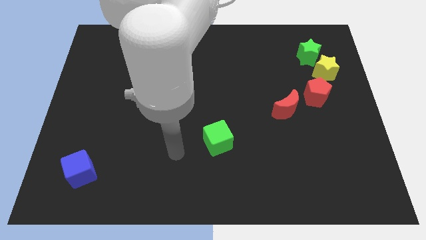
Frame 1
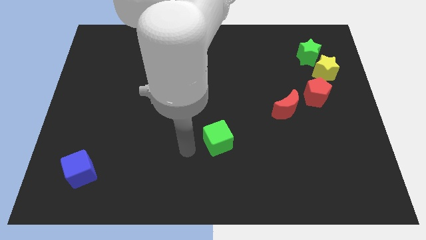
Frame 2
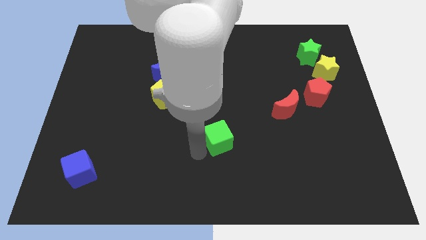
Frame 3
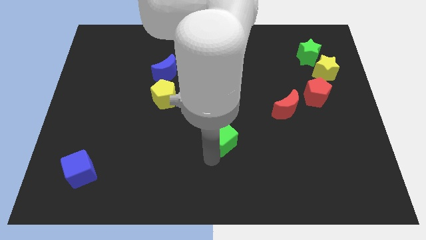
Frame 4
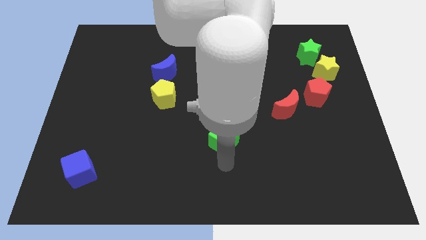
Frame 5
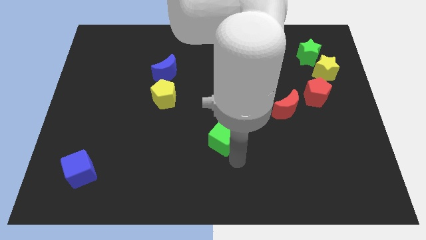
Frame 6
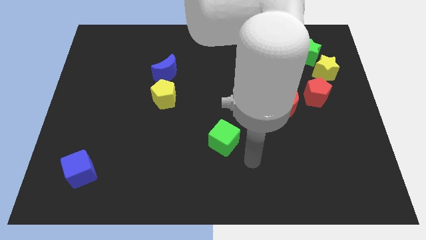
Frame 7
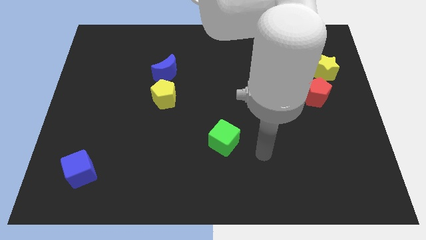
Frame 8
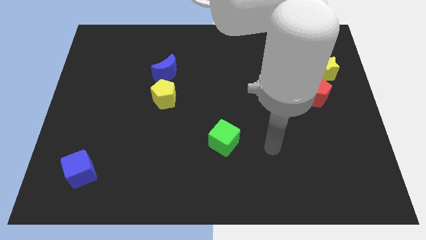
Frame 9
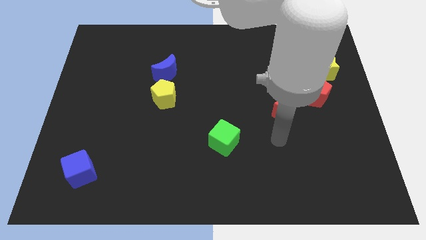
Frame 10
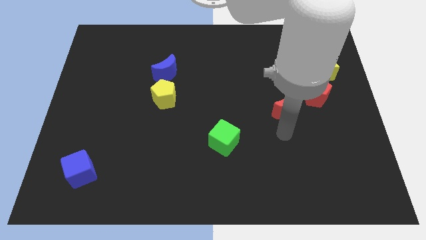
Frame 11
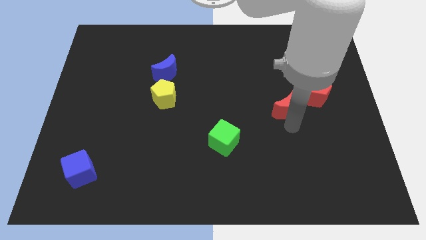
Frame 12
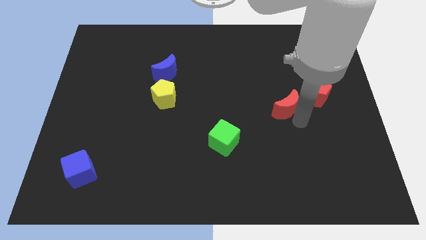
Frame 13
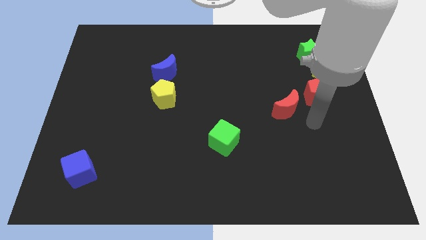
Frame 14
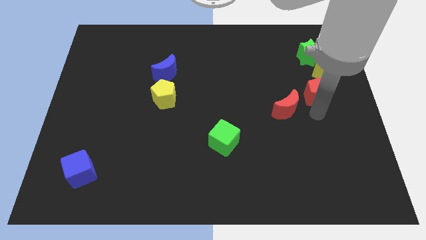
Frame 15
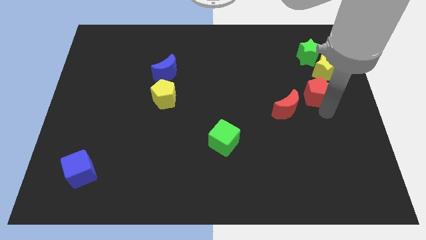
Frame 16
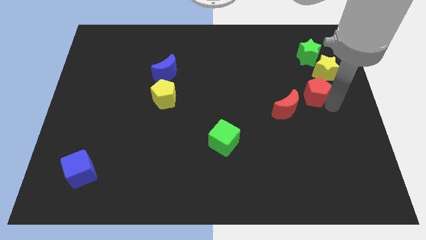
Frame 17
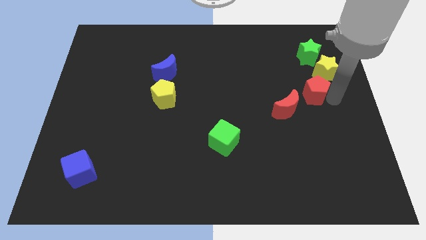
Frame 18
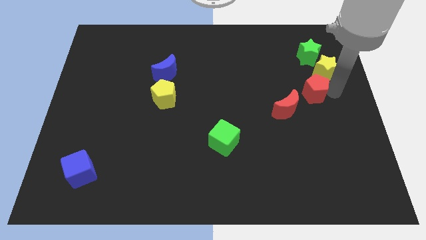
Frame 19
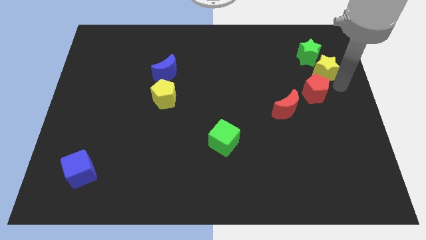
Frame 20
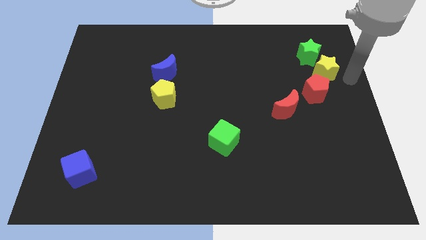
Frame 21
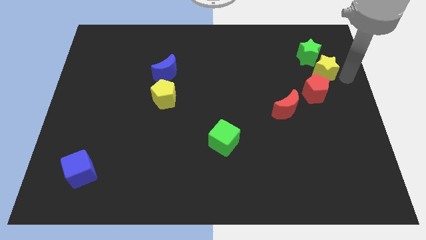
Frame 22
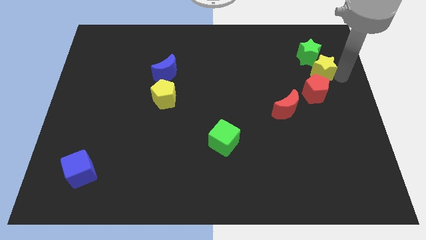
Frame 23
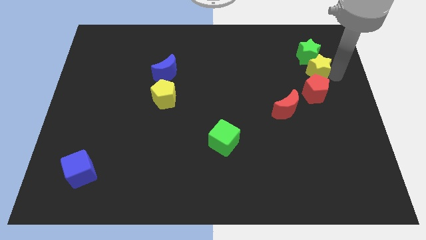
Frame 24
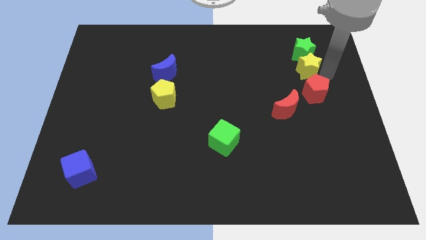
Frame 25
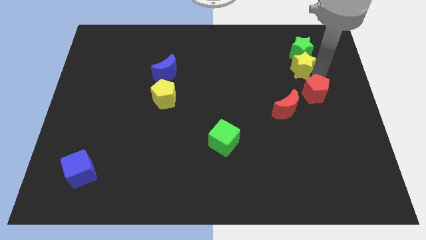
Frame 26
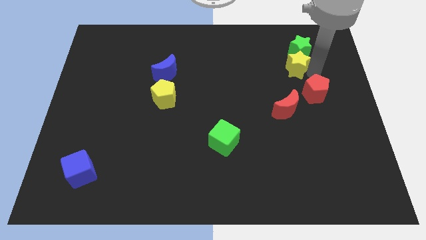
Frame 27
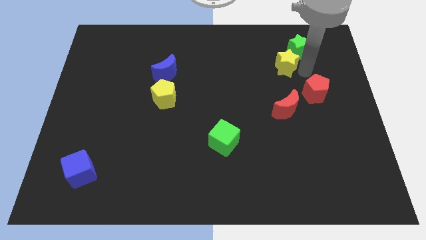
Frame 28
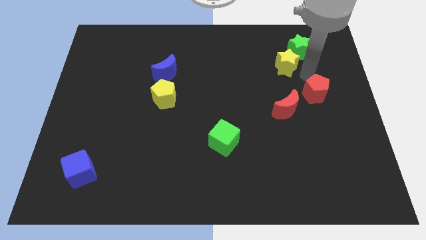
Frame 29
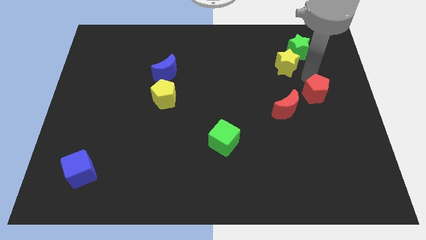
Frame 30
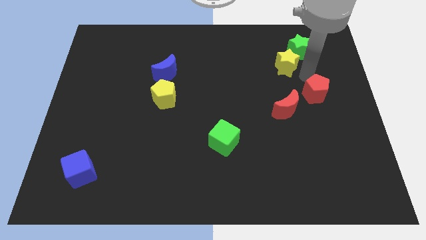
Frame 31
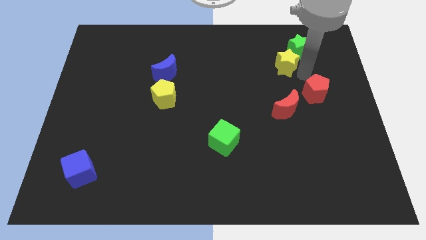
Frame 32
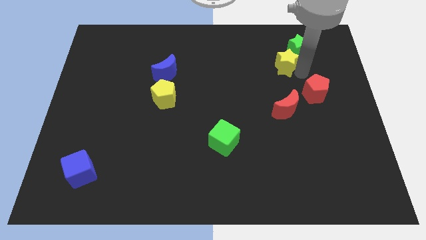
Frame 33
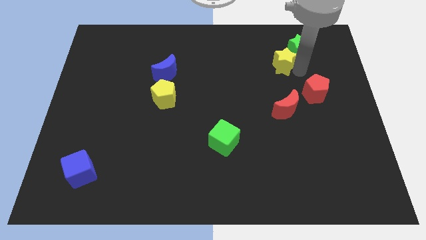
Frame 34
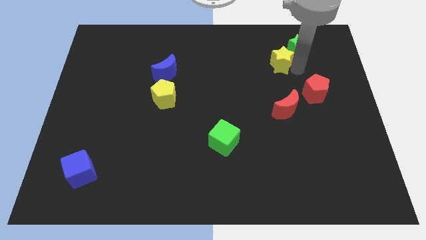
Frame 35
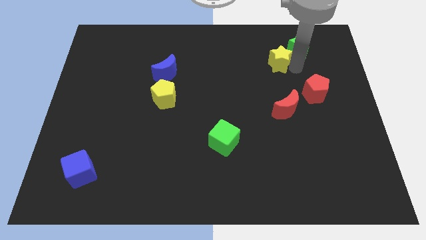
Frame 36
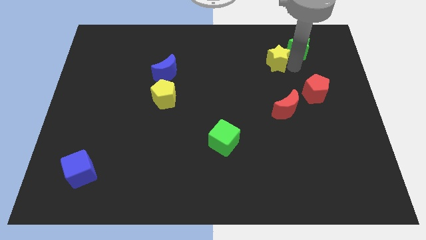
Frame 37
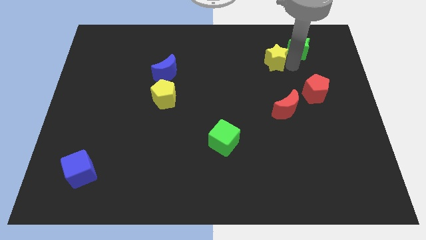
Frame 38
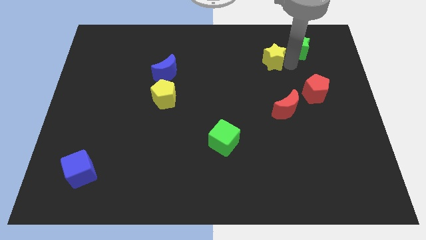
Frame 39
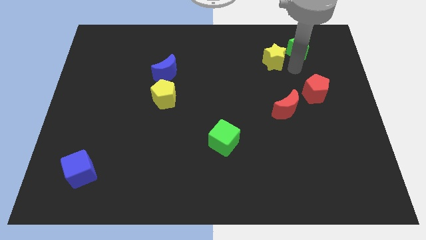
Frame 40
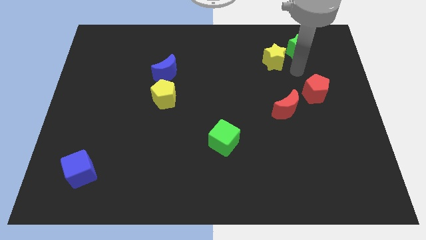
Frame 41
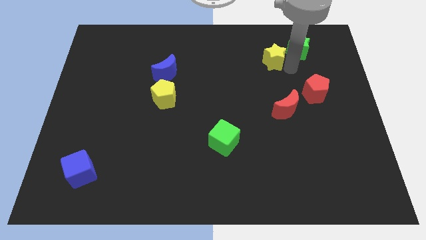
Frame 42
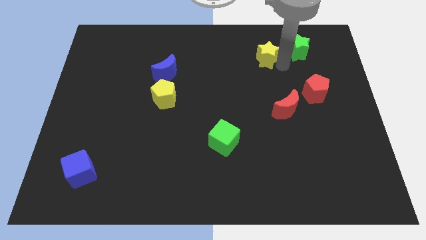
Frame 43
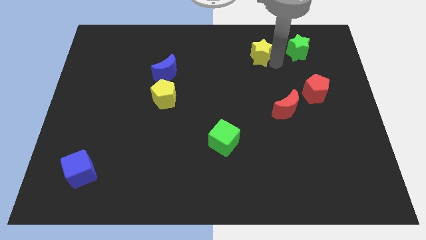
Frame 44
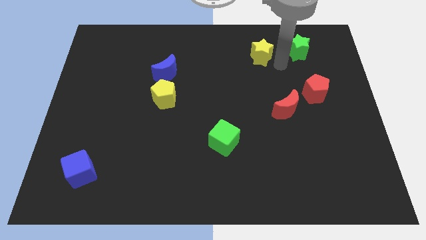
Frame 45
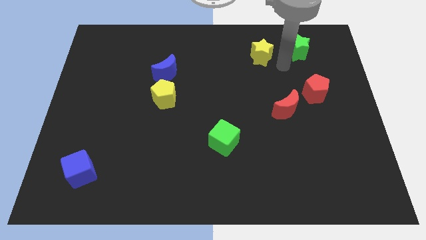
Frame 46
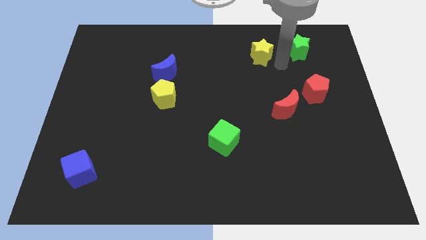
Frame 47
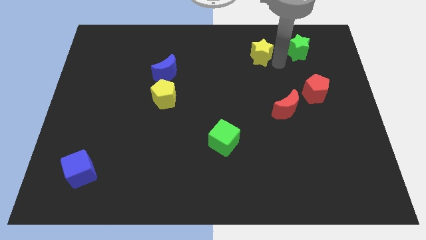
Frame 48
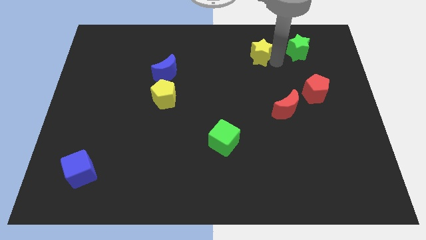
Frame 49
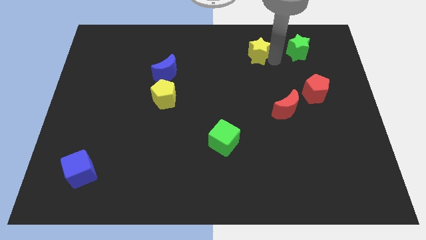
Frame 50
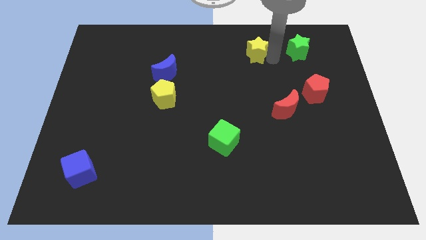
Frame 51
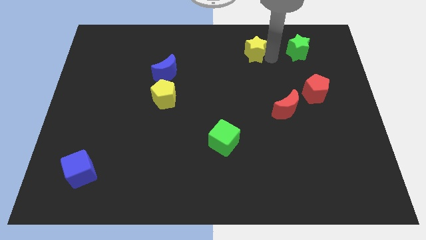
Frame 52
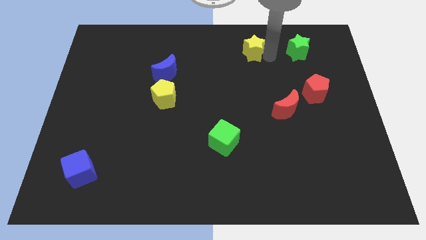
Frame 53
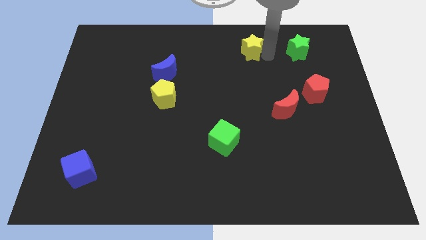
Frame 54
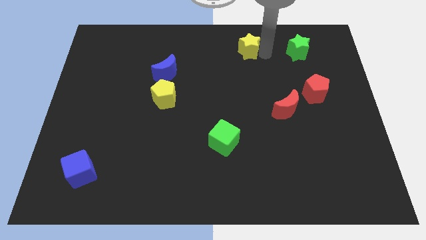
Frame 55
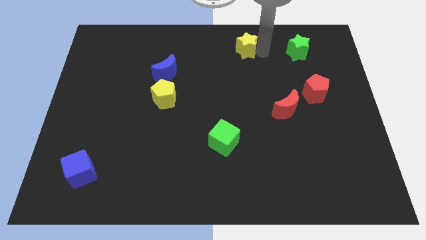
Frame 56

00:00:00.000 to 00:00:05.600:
slide the yellow star to the towards your base
